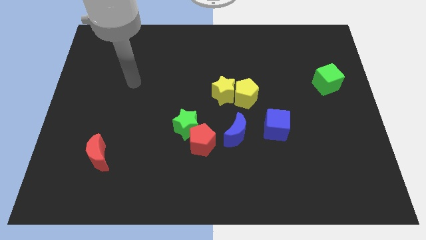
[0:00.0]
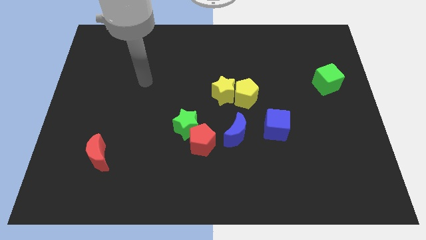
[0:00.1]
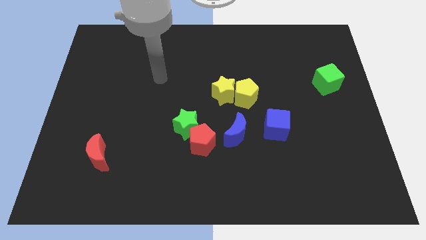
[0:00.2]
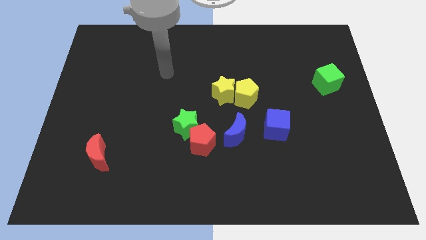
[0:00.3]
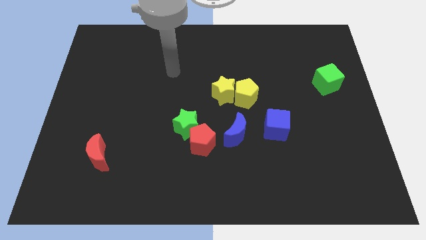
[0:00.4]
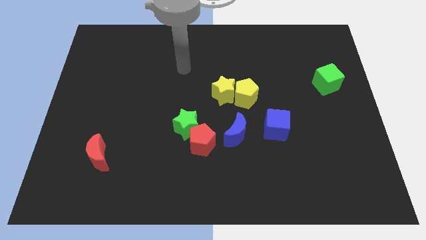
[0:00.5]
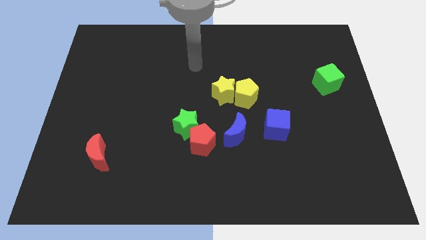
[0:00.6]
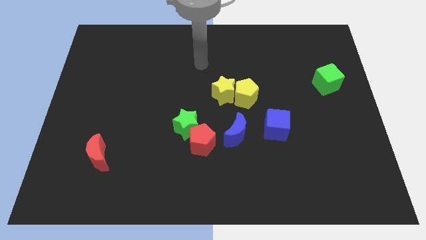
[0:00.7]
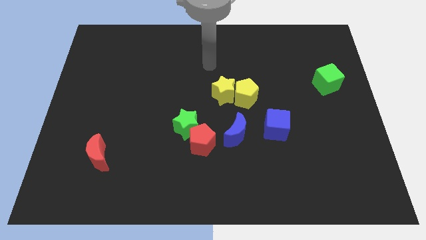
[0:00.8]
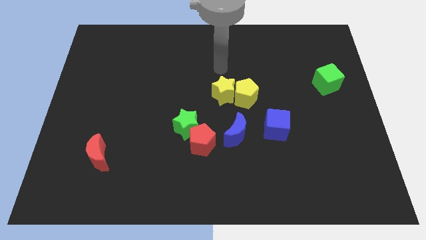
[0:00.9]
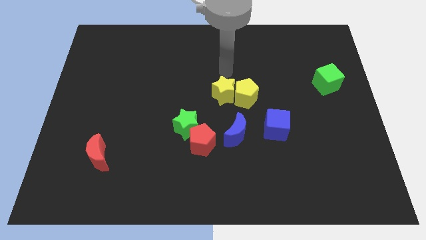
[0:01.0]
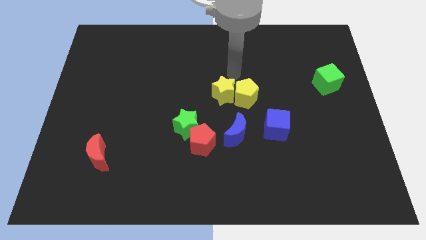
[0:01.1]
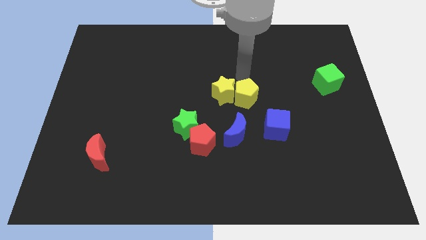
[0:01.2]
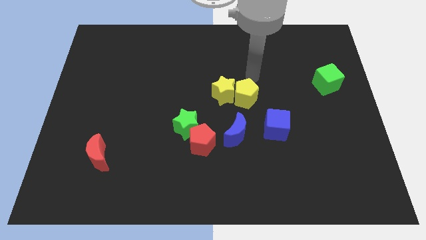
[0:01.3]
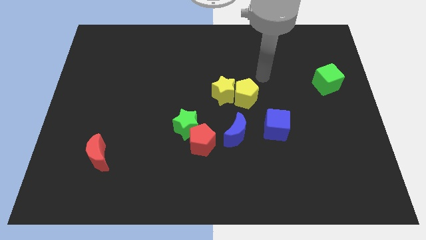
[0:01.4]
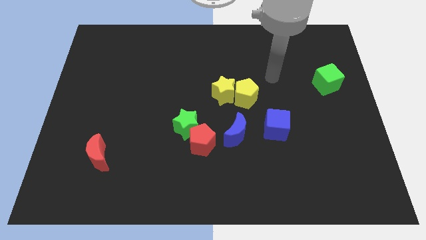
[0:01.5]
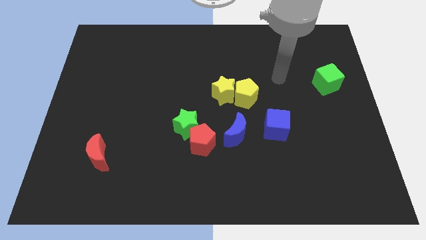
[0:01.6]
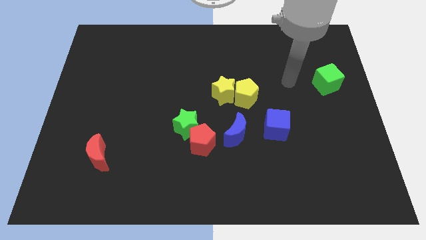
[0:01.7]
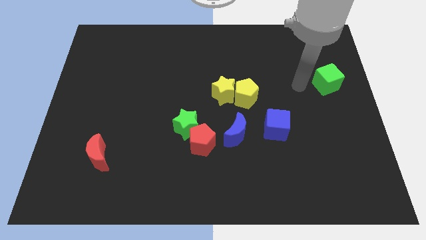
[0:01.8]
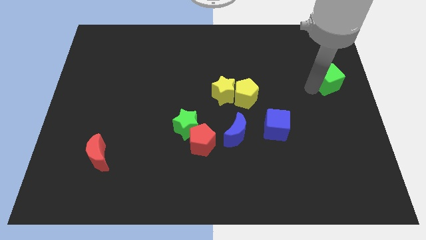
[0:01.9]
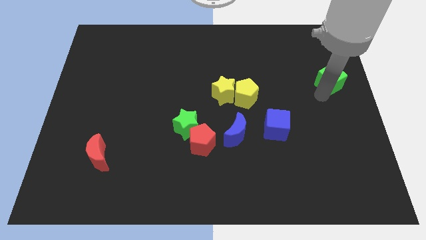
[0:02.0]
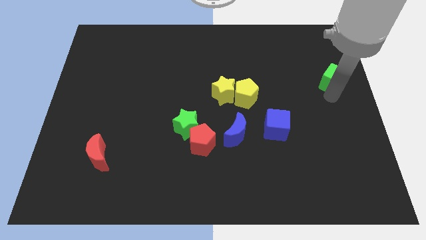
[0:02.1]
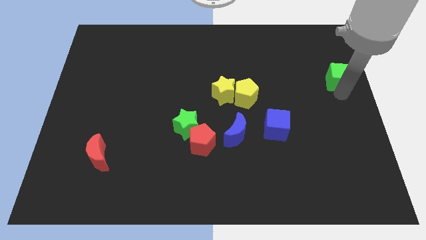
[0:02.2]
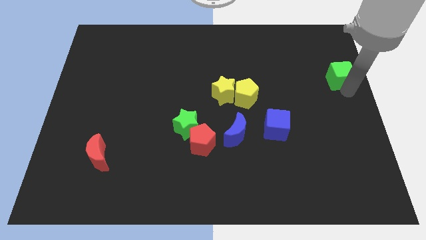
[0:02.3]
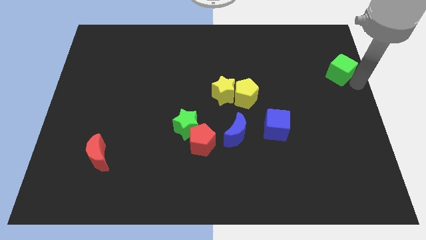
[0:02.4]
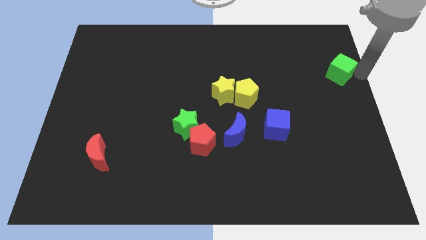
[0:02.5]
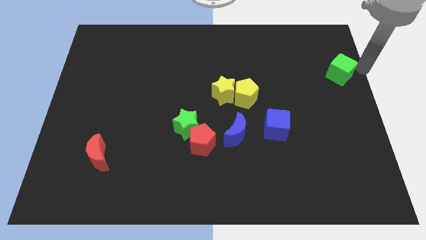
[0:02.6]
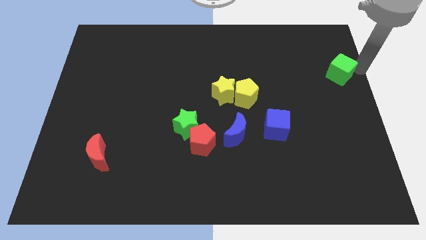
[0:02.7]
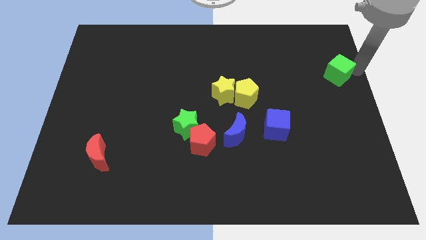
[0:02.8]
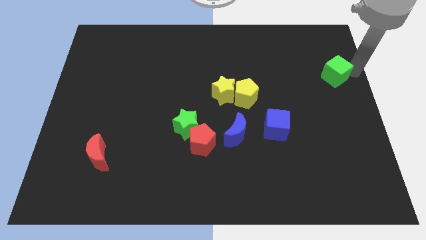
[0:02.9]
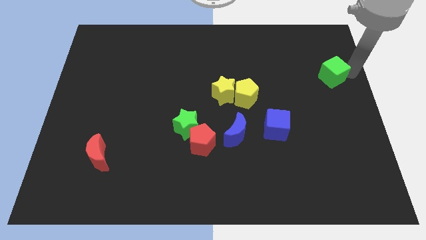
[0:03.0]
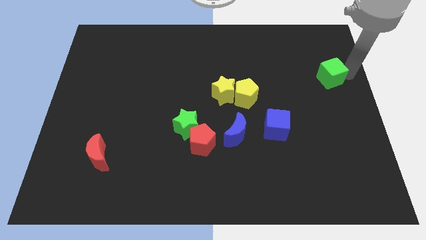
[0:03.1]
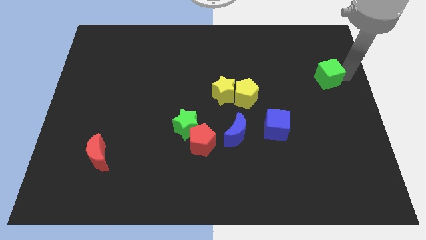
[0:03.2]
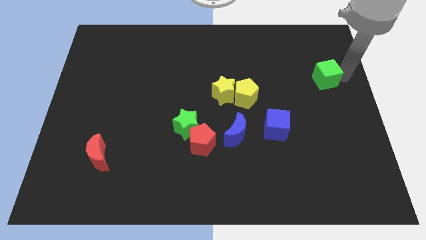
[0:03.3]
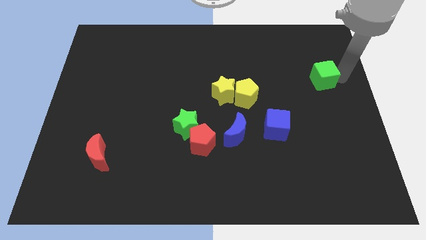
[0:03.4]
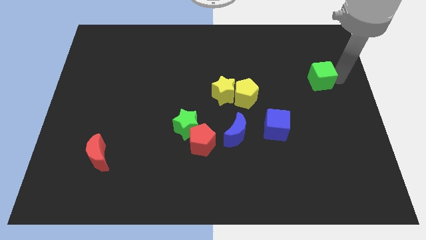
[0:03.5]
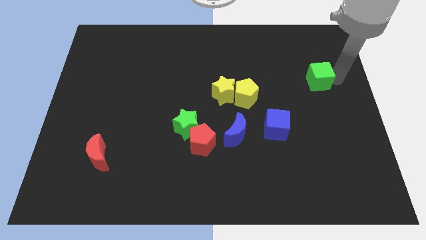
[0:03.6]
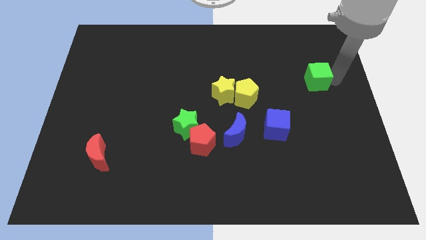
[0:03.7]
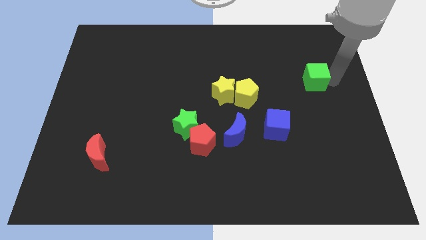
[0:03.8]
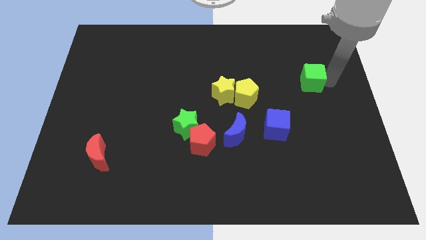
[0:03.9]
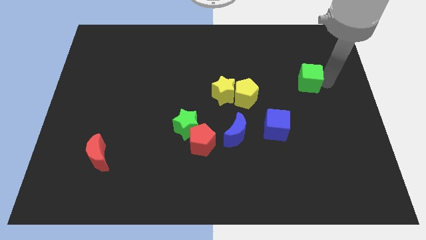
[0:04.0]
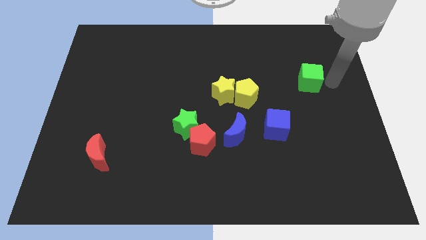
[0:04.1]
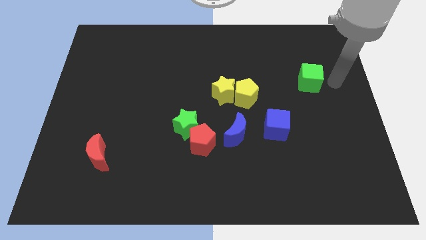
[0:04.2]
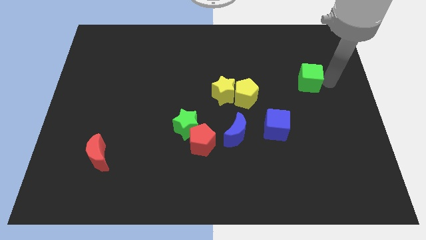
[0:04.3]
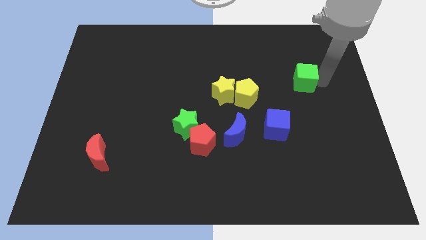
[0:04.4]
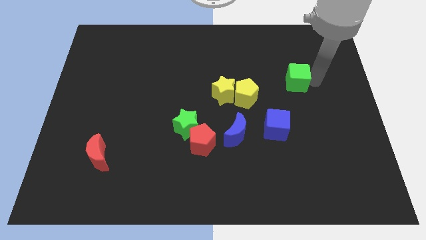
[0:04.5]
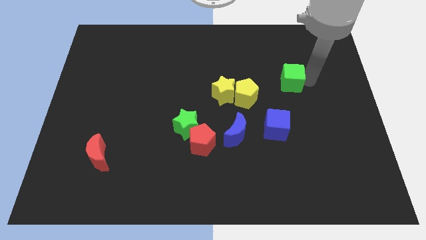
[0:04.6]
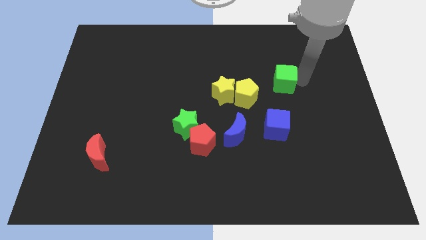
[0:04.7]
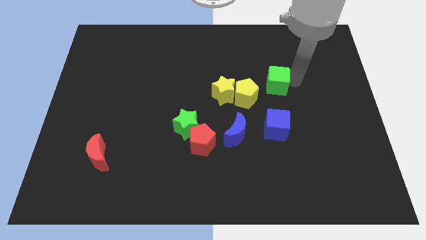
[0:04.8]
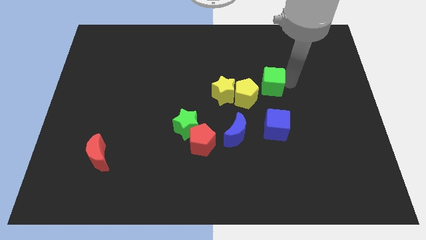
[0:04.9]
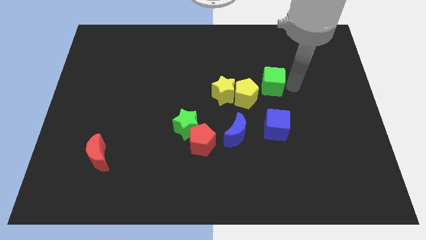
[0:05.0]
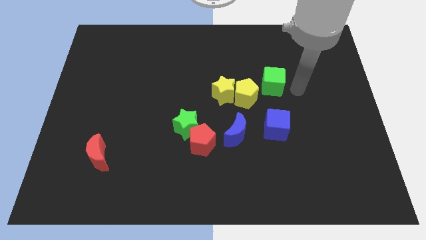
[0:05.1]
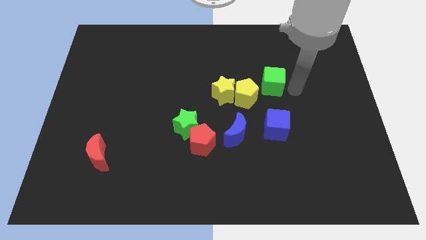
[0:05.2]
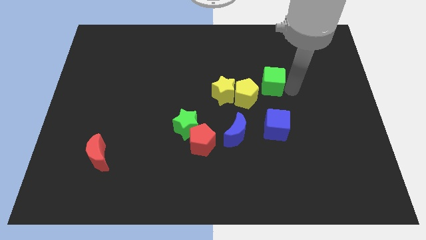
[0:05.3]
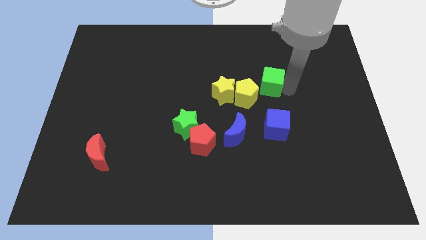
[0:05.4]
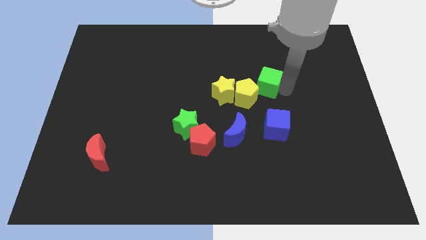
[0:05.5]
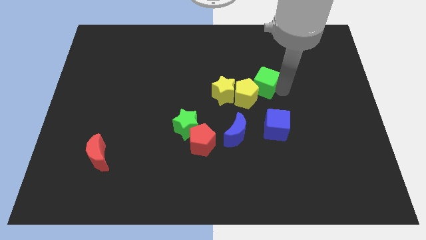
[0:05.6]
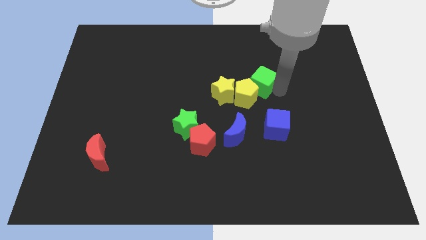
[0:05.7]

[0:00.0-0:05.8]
slide the green cube diagonally up and to the right of the yellow star

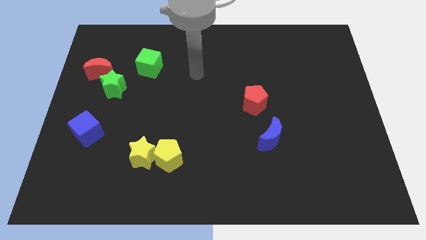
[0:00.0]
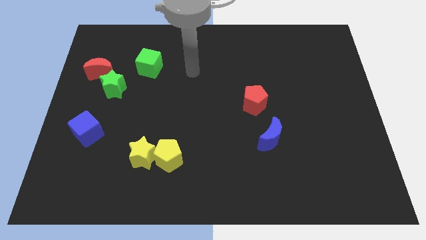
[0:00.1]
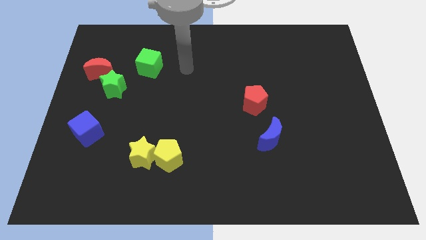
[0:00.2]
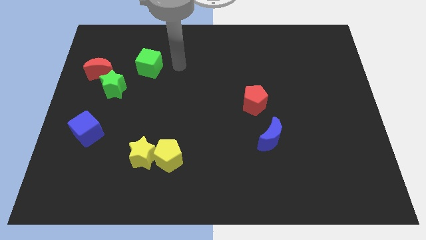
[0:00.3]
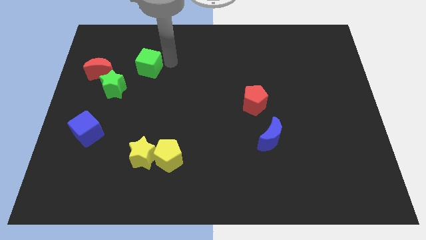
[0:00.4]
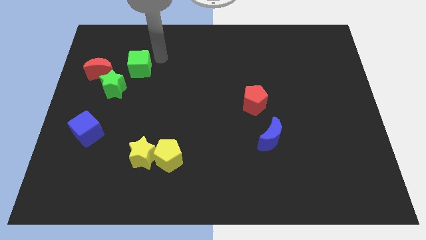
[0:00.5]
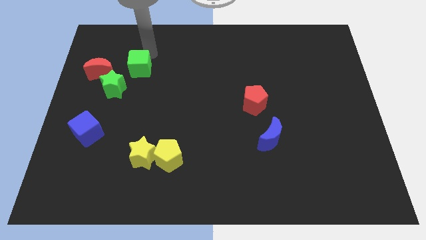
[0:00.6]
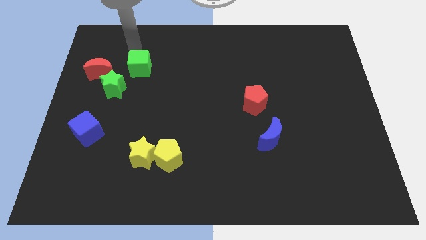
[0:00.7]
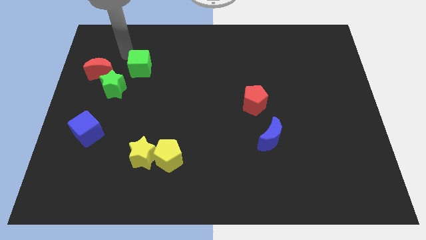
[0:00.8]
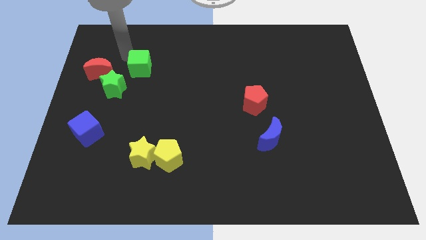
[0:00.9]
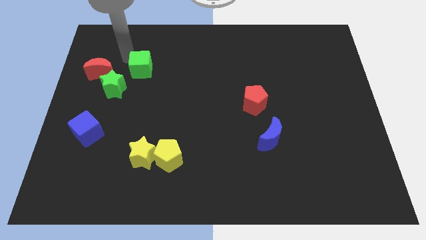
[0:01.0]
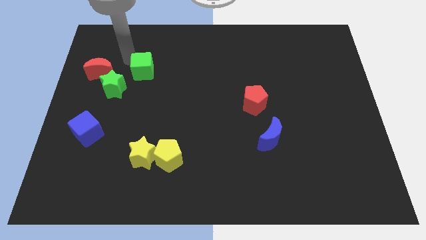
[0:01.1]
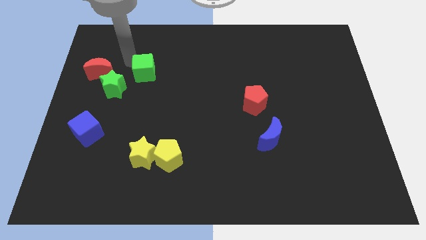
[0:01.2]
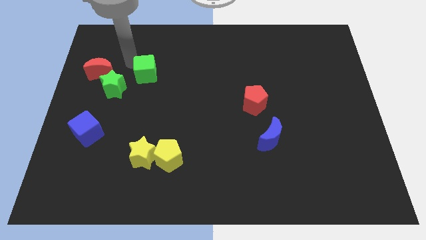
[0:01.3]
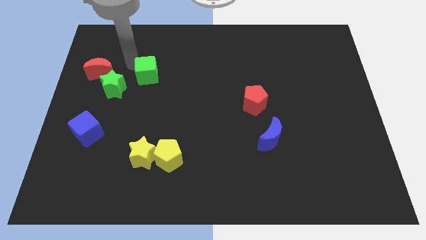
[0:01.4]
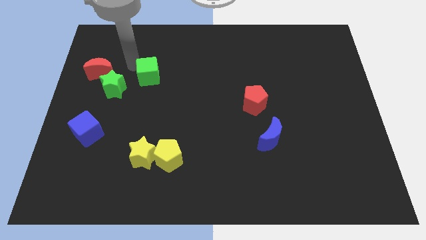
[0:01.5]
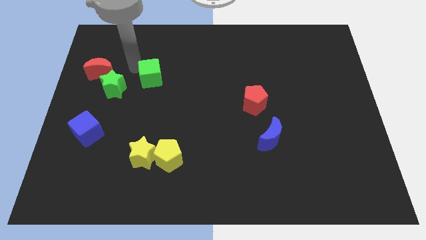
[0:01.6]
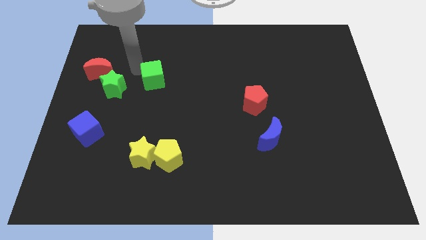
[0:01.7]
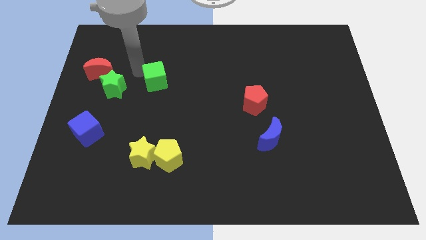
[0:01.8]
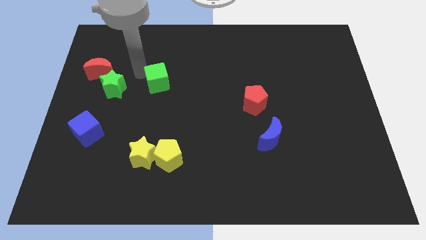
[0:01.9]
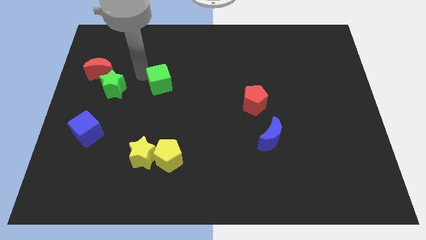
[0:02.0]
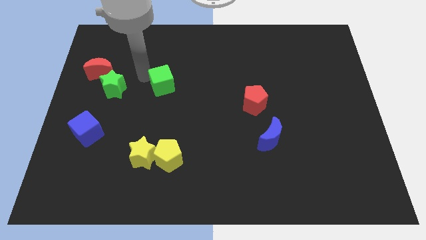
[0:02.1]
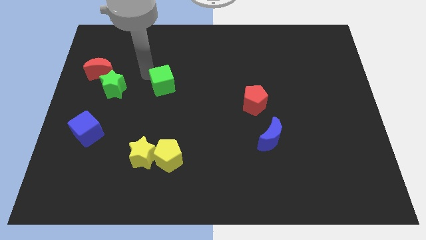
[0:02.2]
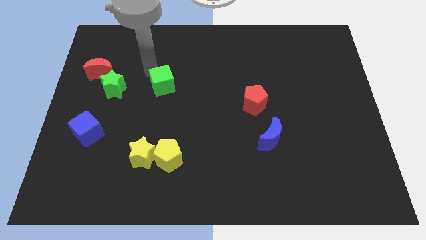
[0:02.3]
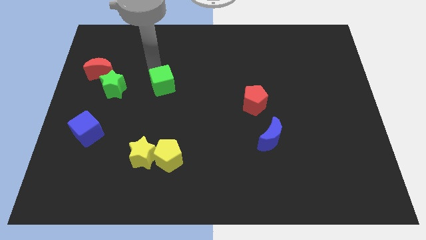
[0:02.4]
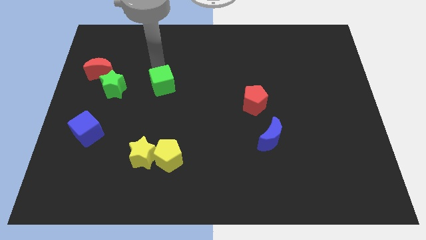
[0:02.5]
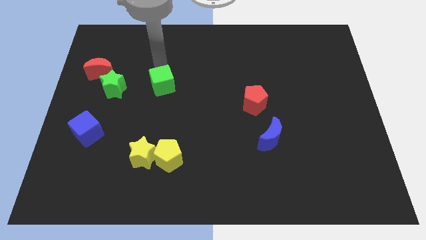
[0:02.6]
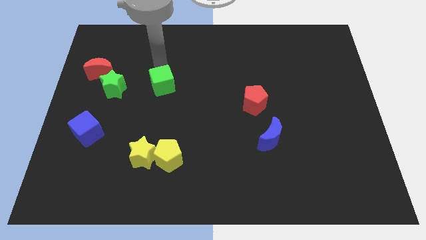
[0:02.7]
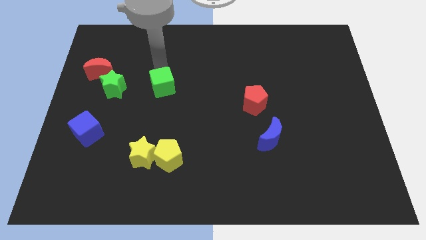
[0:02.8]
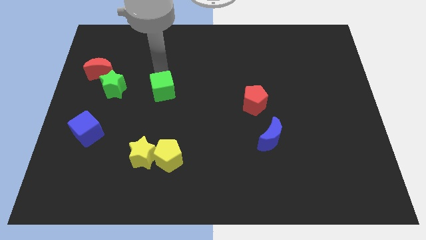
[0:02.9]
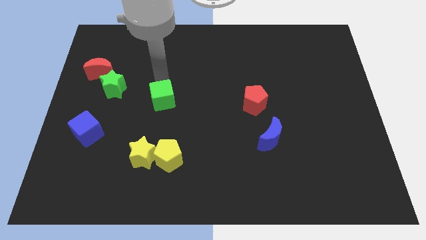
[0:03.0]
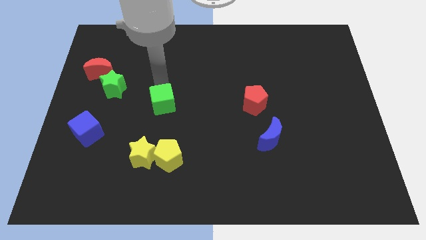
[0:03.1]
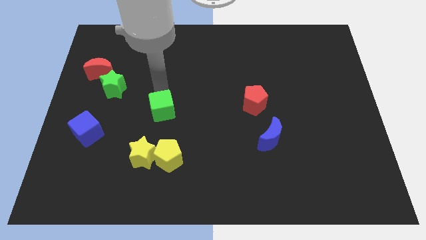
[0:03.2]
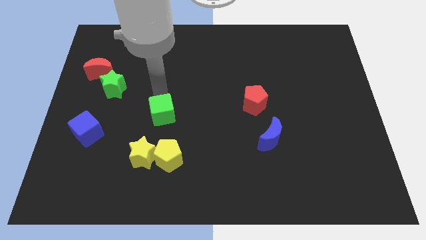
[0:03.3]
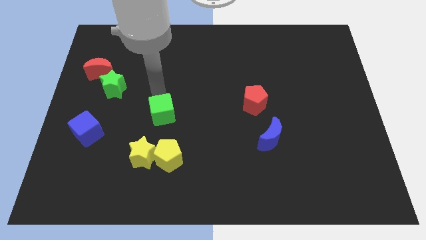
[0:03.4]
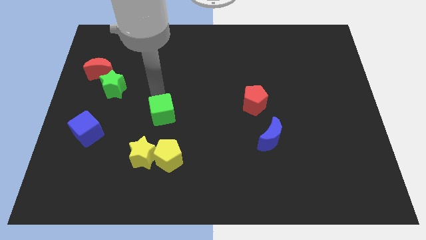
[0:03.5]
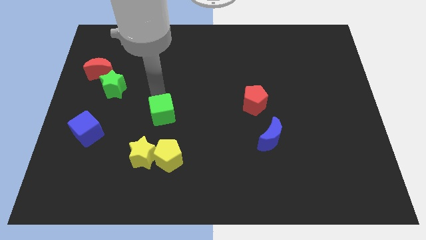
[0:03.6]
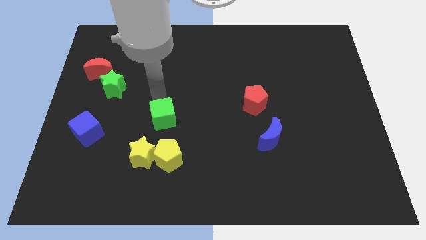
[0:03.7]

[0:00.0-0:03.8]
push the green cube to the top right side of the yellow star
